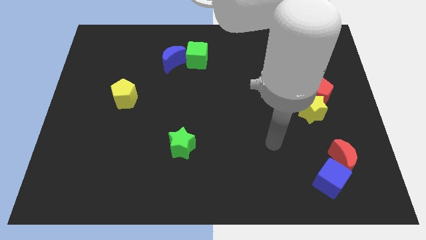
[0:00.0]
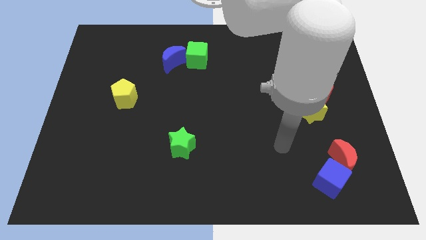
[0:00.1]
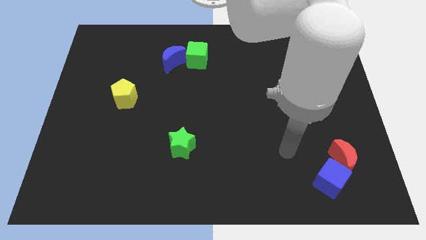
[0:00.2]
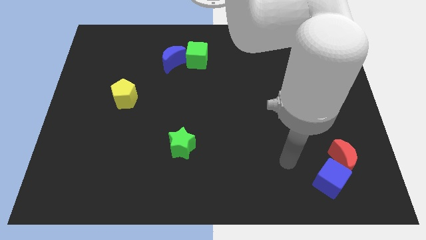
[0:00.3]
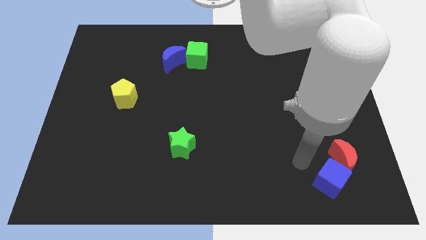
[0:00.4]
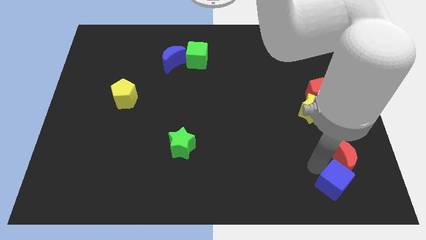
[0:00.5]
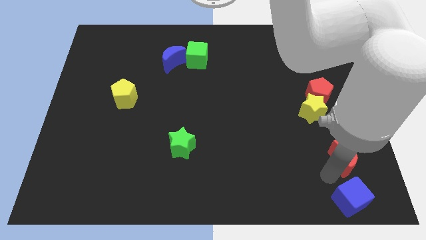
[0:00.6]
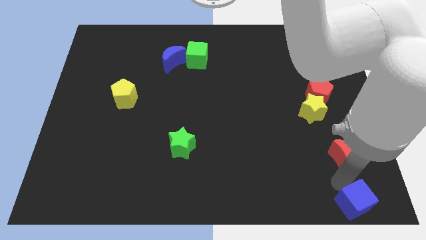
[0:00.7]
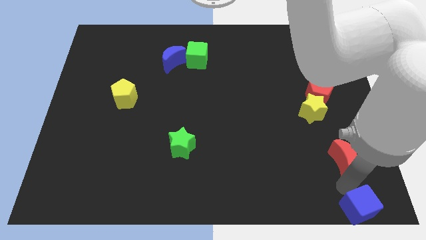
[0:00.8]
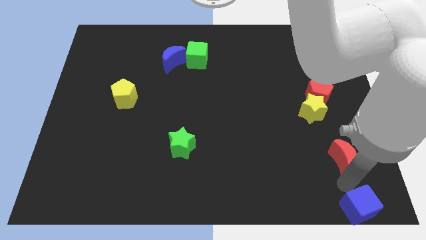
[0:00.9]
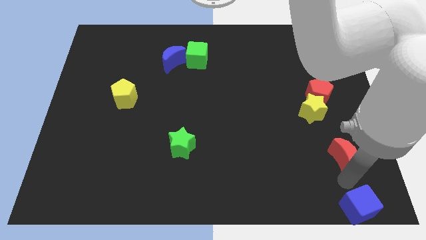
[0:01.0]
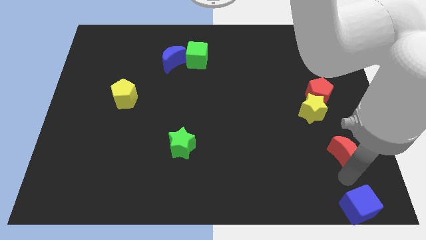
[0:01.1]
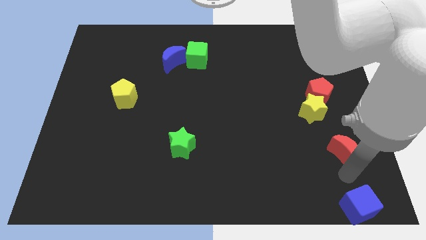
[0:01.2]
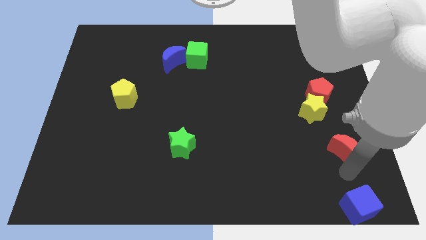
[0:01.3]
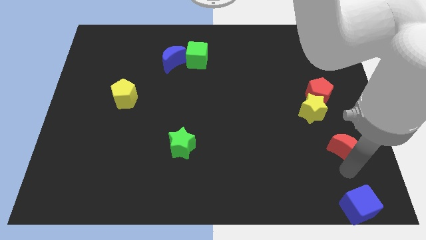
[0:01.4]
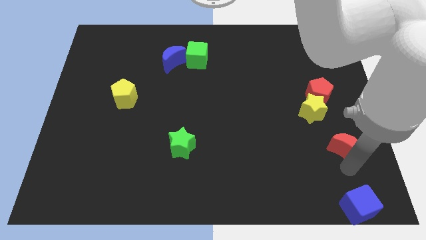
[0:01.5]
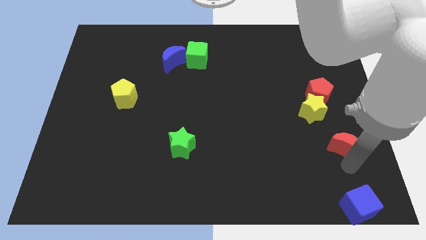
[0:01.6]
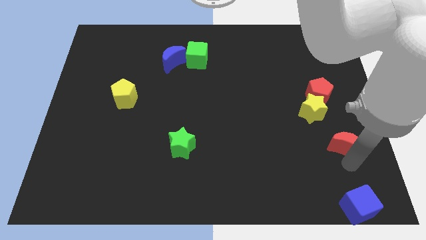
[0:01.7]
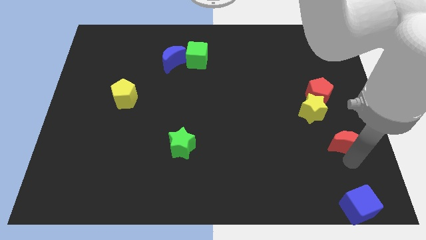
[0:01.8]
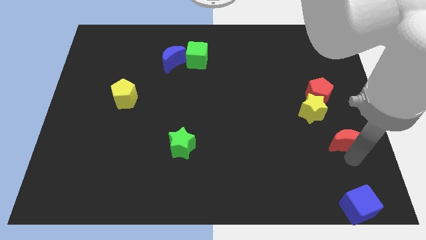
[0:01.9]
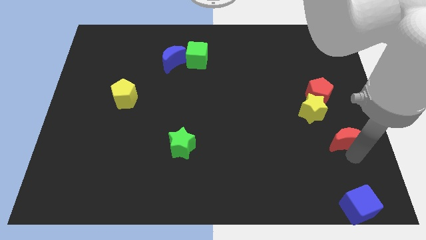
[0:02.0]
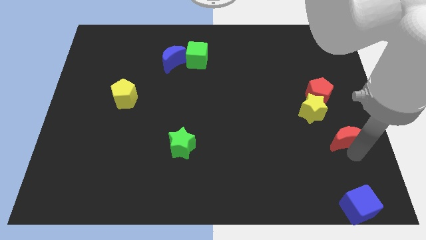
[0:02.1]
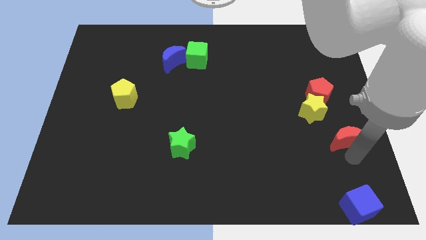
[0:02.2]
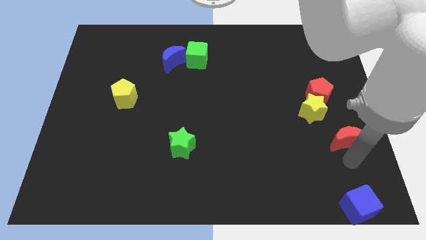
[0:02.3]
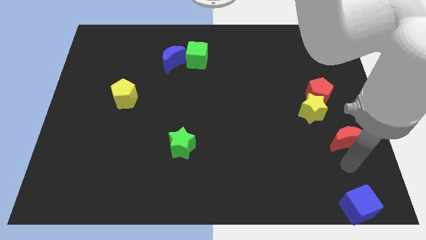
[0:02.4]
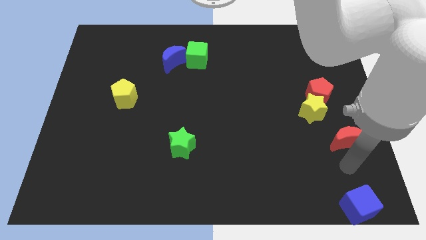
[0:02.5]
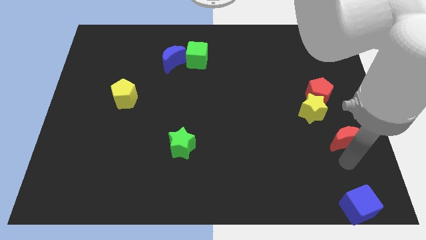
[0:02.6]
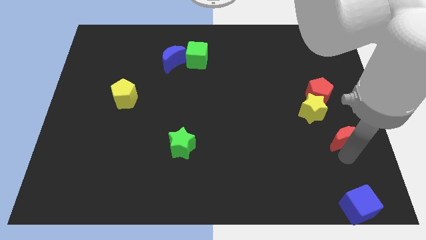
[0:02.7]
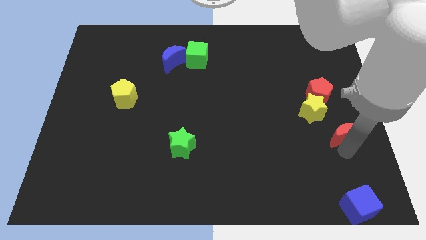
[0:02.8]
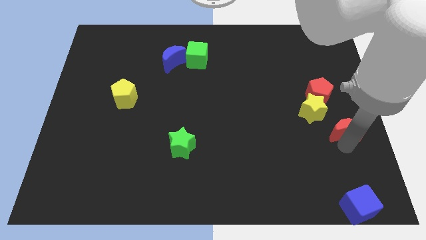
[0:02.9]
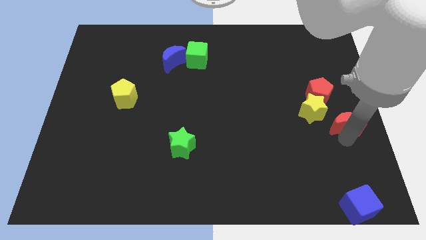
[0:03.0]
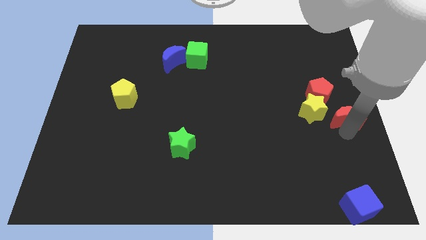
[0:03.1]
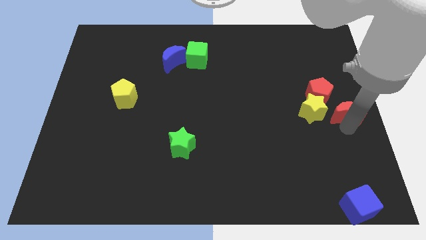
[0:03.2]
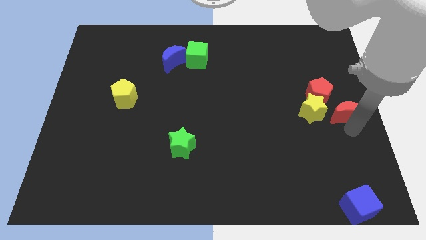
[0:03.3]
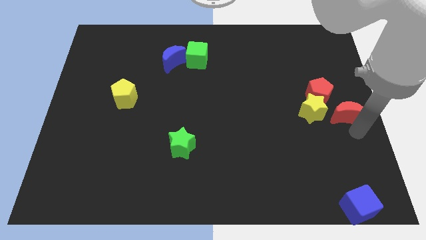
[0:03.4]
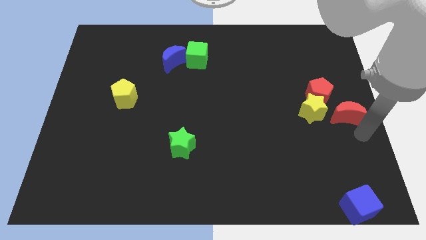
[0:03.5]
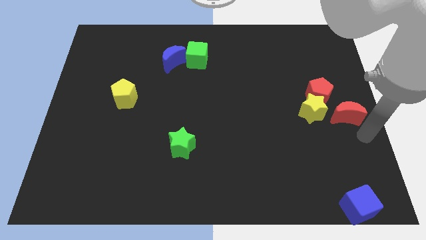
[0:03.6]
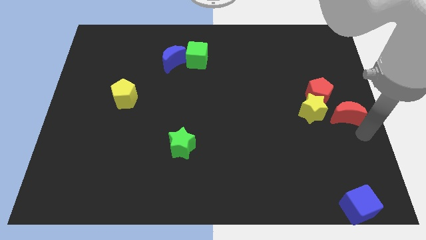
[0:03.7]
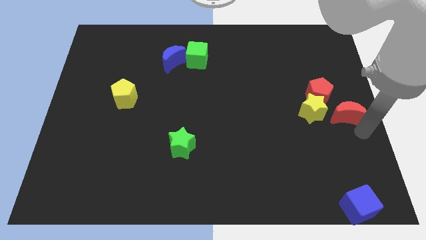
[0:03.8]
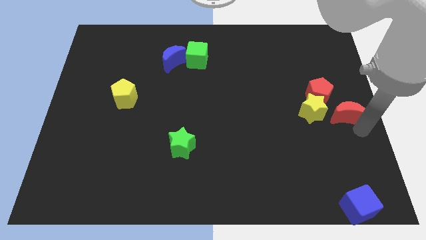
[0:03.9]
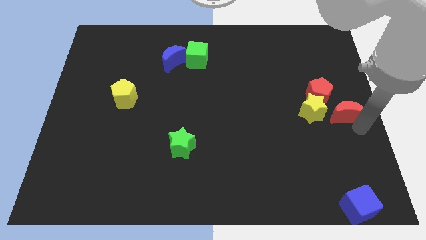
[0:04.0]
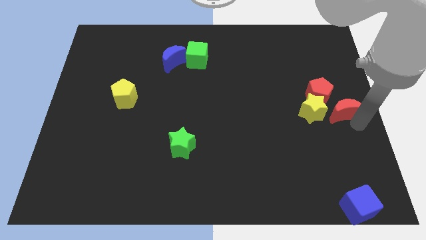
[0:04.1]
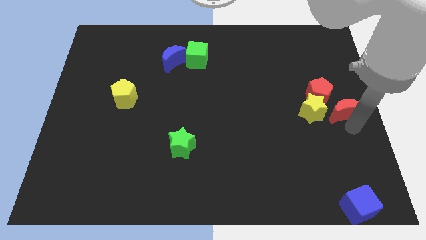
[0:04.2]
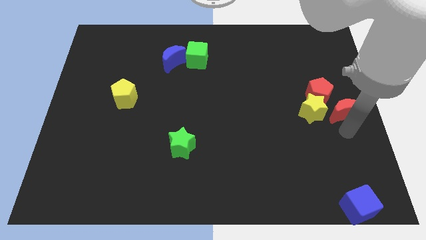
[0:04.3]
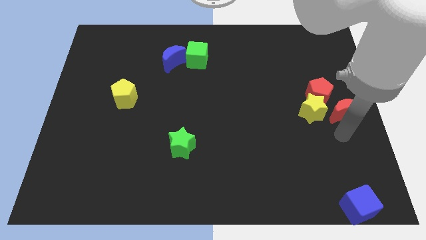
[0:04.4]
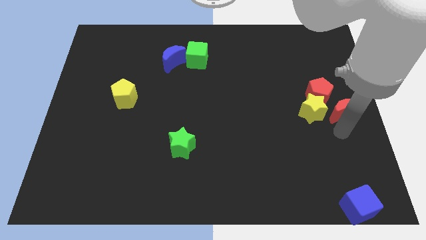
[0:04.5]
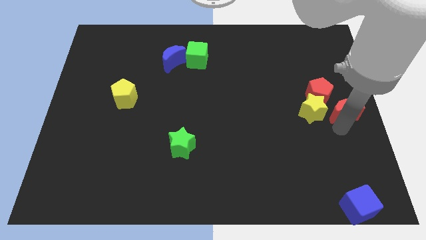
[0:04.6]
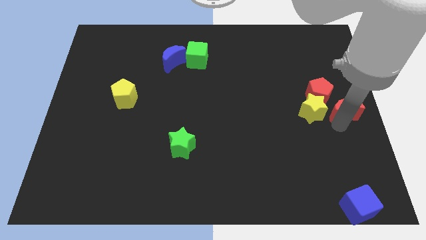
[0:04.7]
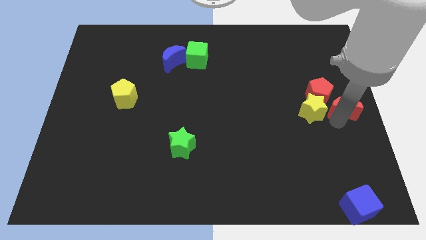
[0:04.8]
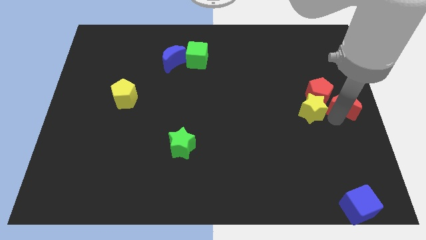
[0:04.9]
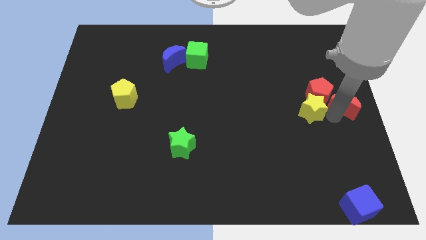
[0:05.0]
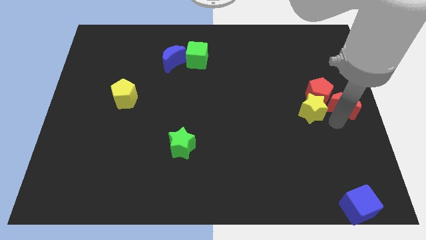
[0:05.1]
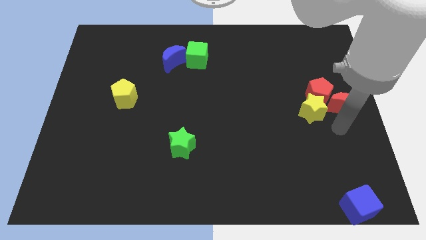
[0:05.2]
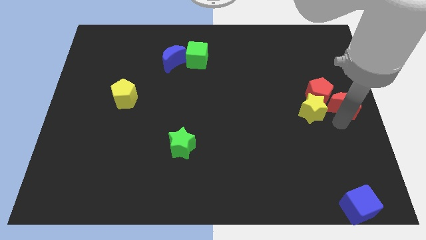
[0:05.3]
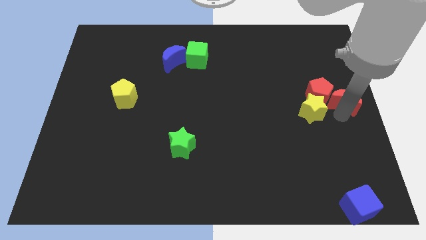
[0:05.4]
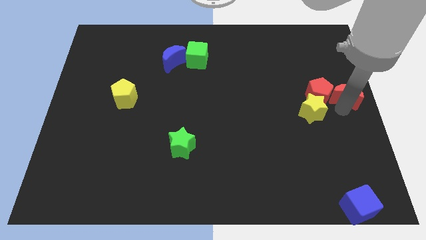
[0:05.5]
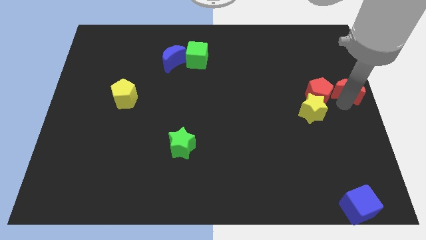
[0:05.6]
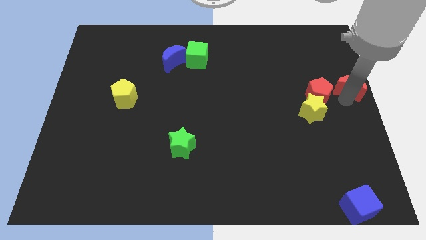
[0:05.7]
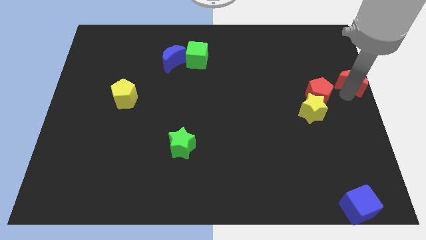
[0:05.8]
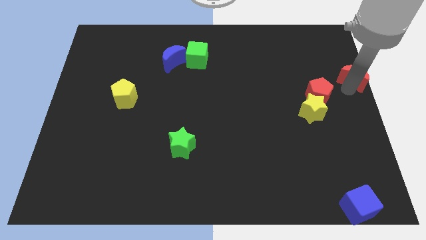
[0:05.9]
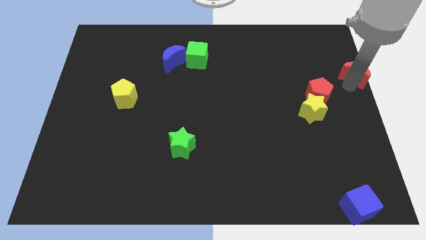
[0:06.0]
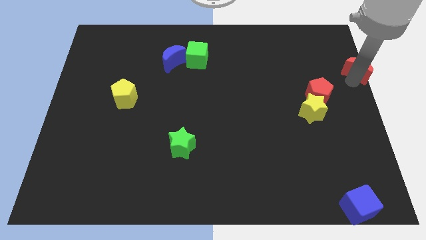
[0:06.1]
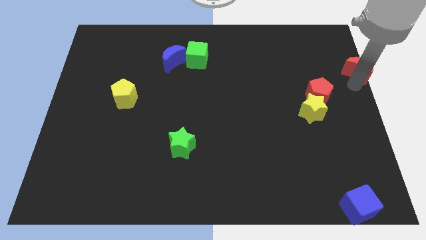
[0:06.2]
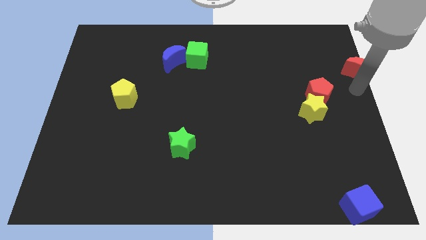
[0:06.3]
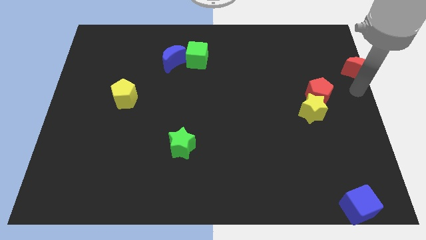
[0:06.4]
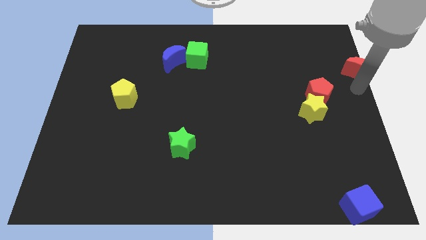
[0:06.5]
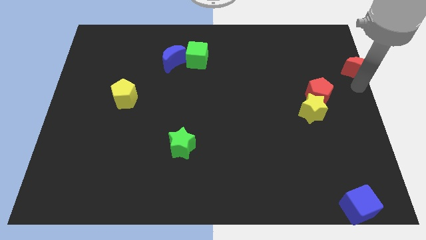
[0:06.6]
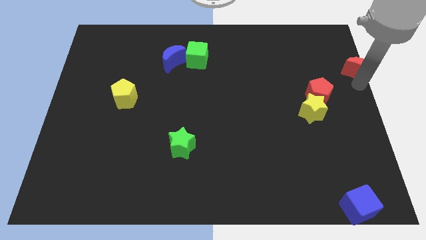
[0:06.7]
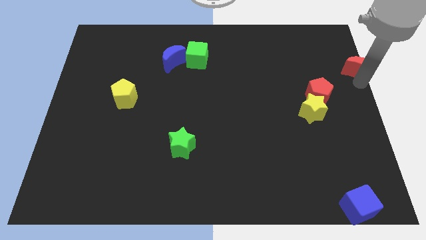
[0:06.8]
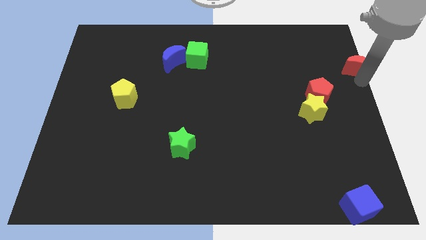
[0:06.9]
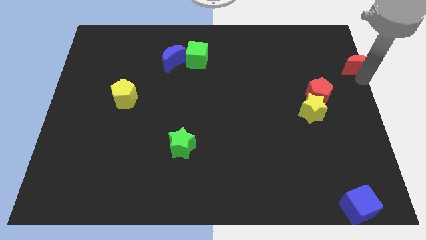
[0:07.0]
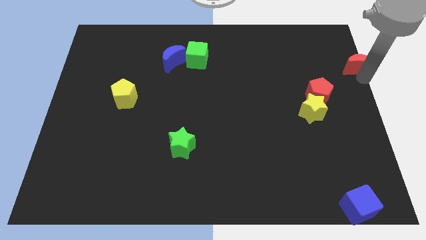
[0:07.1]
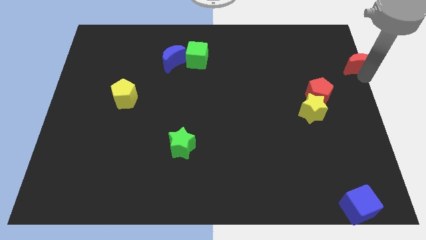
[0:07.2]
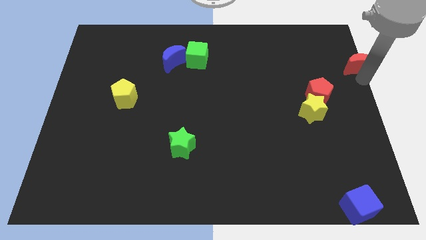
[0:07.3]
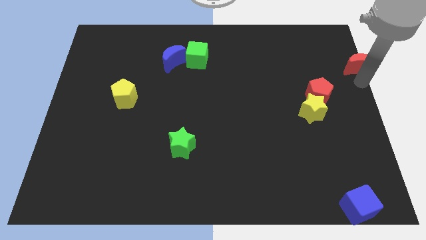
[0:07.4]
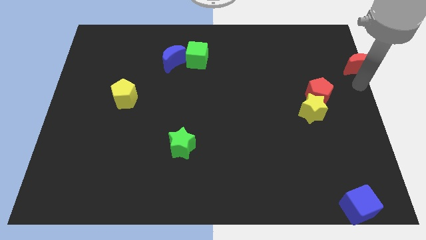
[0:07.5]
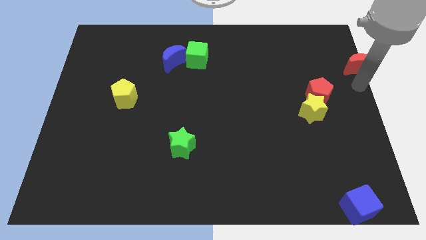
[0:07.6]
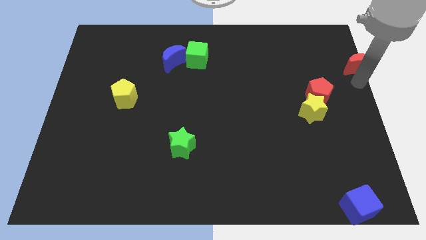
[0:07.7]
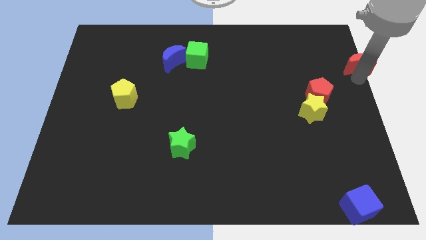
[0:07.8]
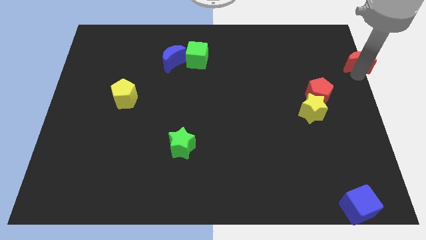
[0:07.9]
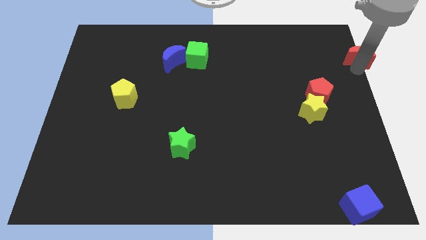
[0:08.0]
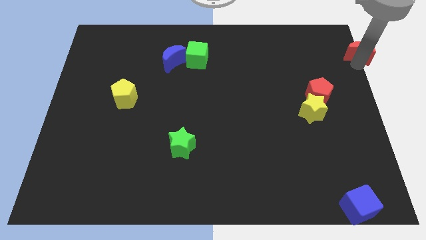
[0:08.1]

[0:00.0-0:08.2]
put the red moon to the upper right corner
